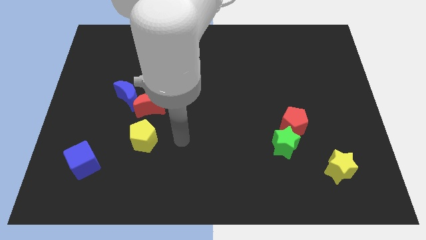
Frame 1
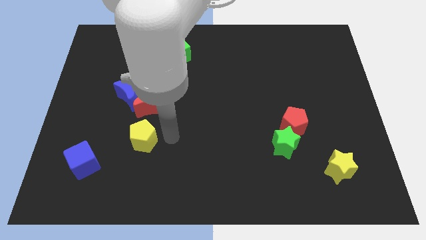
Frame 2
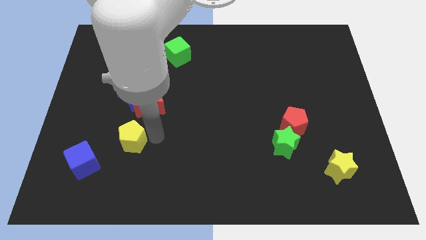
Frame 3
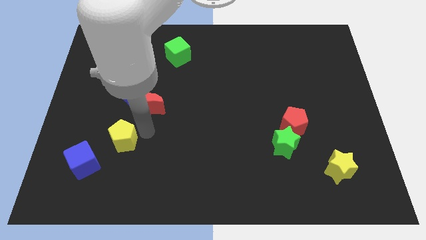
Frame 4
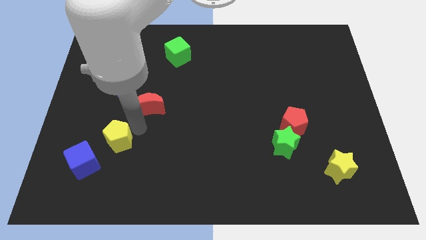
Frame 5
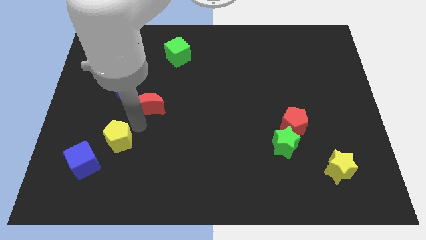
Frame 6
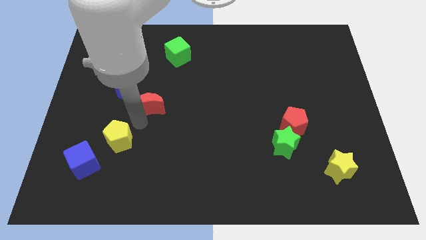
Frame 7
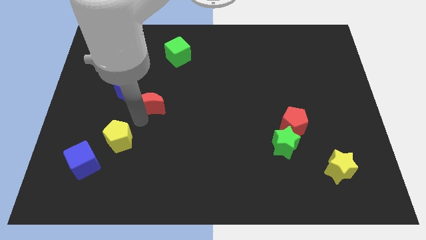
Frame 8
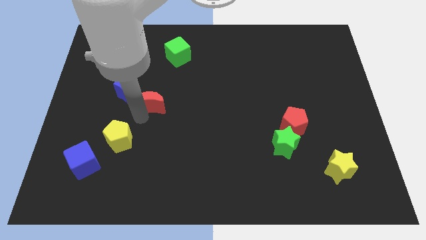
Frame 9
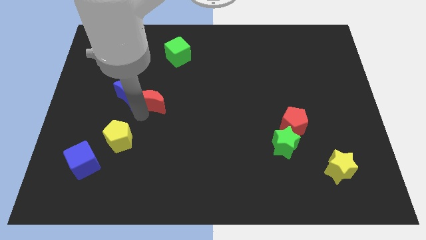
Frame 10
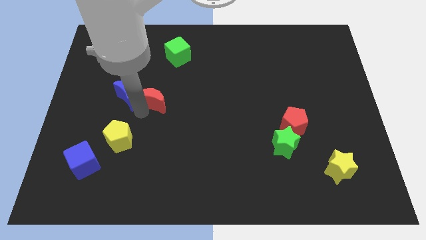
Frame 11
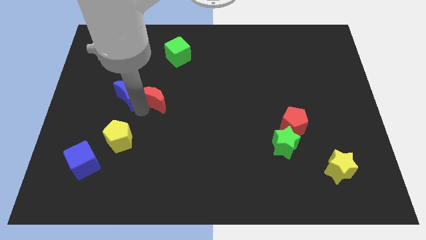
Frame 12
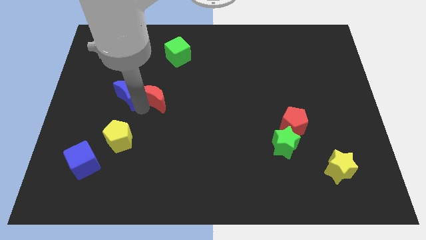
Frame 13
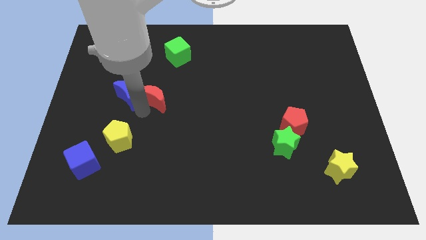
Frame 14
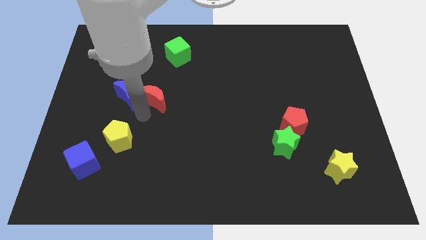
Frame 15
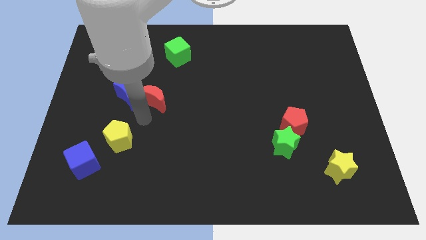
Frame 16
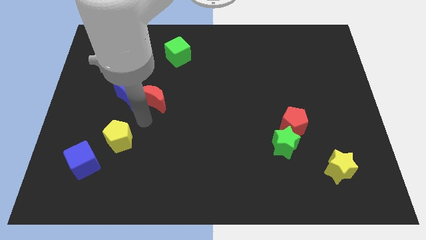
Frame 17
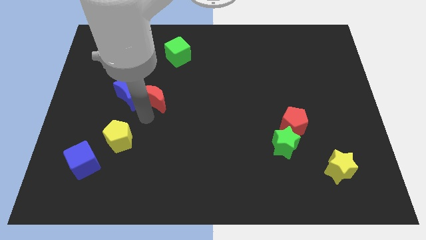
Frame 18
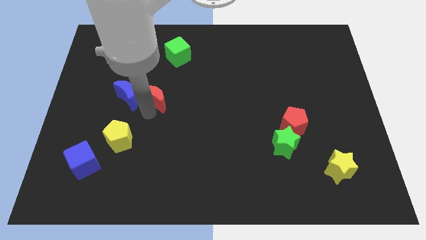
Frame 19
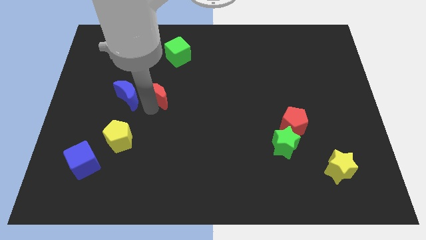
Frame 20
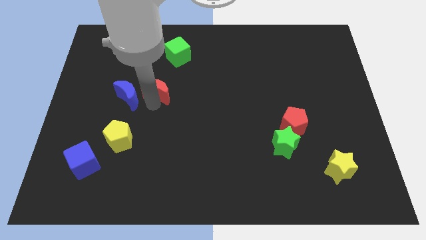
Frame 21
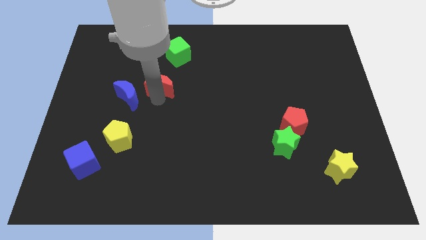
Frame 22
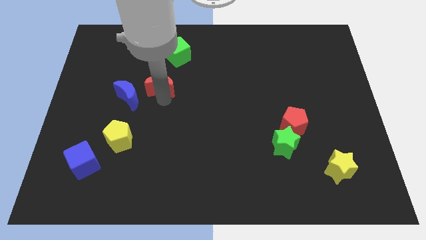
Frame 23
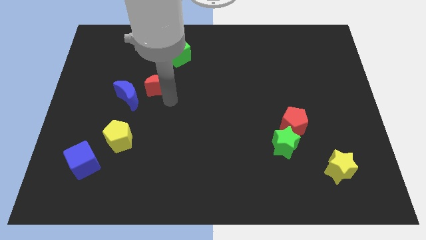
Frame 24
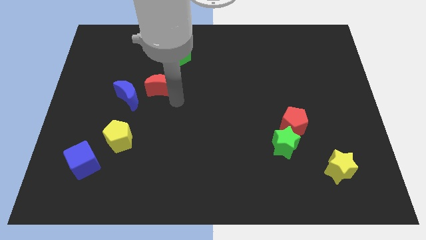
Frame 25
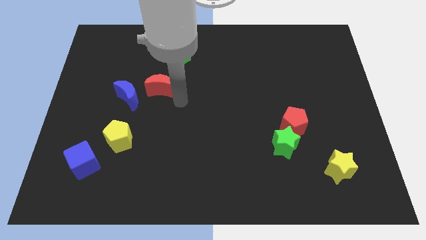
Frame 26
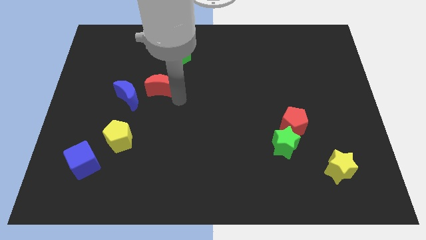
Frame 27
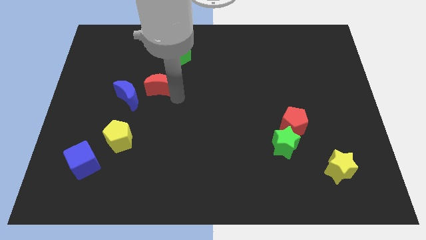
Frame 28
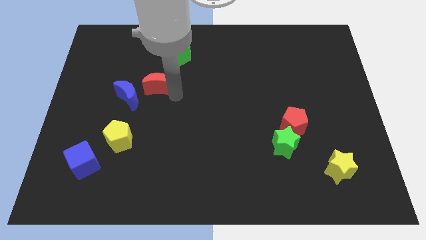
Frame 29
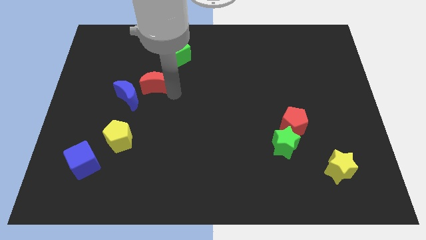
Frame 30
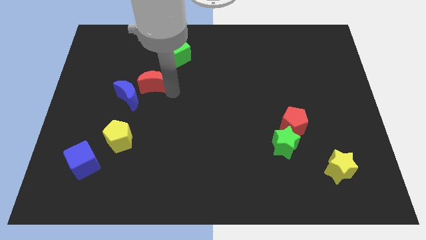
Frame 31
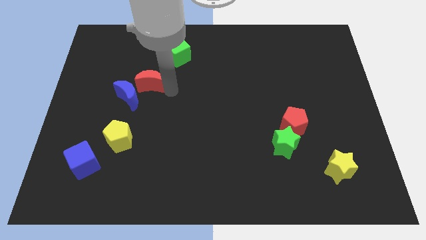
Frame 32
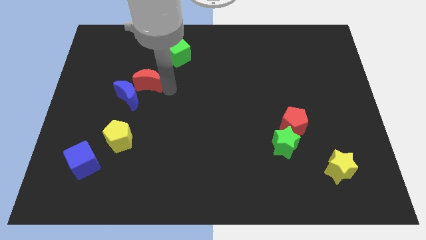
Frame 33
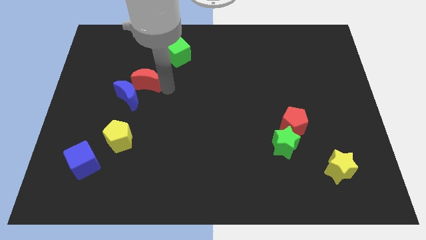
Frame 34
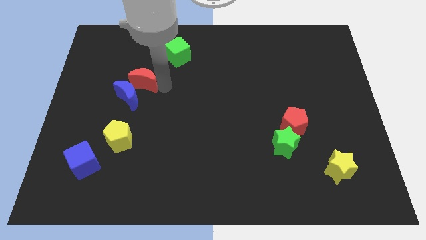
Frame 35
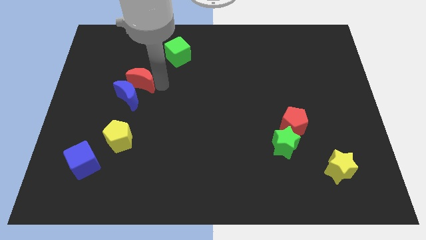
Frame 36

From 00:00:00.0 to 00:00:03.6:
slightly push the red moon up and to the left diagonally

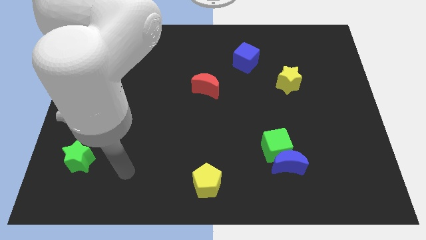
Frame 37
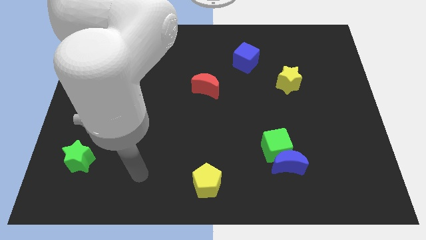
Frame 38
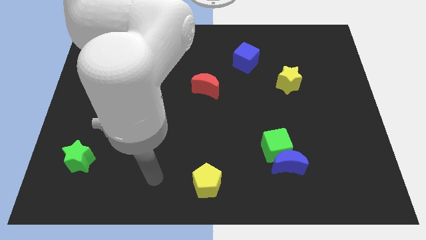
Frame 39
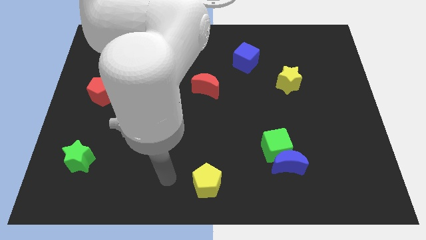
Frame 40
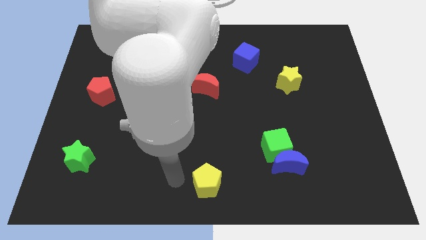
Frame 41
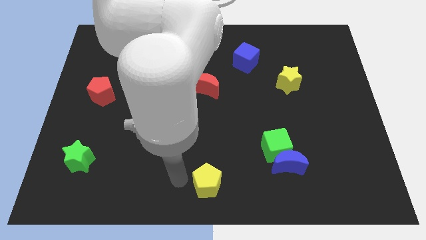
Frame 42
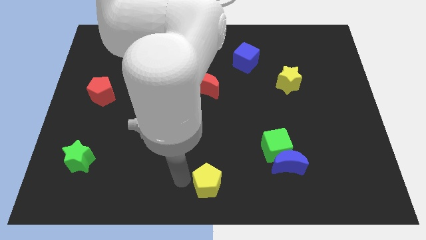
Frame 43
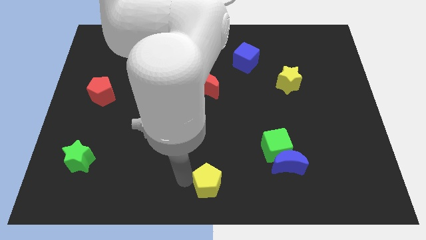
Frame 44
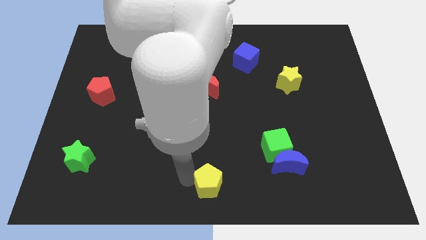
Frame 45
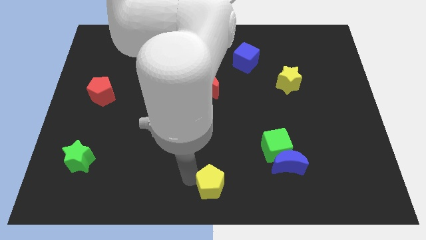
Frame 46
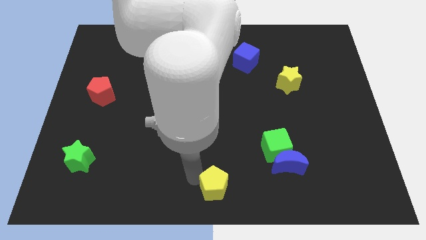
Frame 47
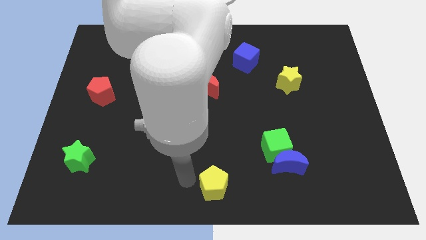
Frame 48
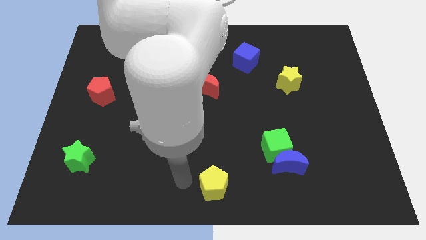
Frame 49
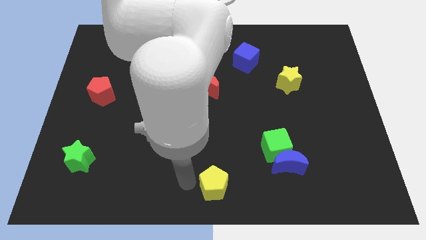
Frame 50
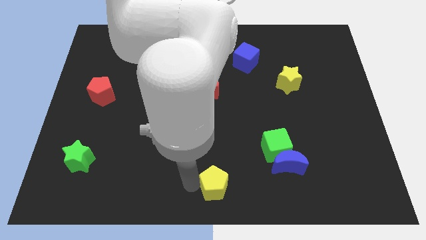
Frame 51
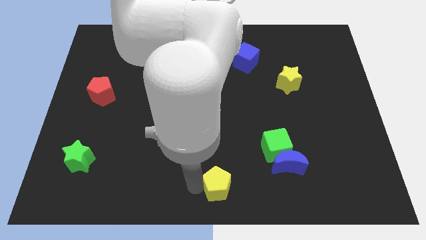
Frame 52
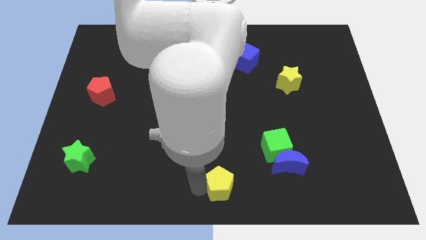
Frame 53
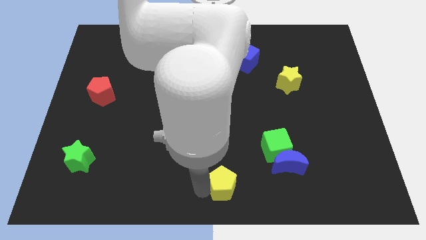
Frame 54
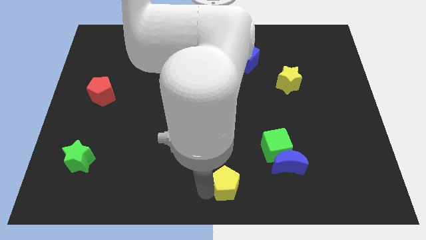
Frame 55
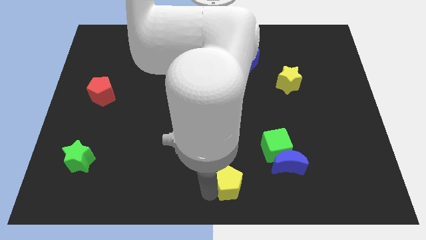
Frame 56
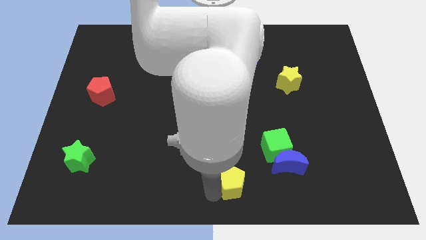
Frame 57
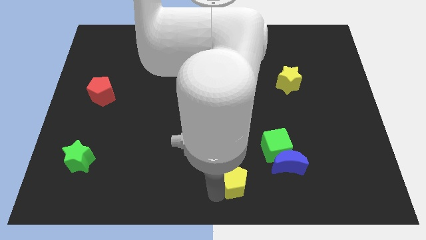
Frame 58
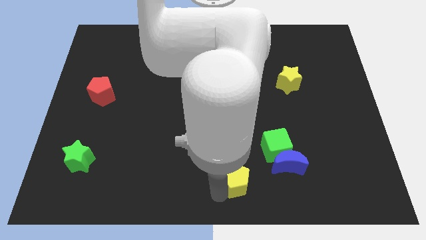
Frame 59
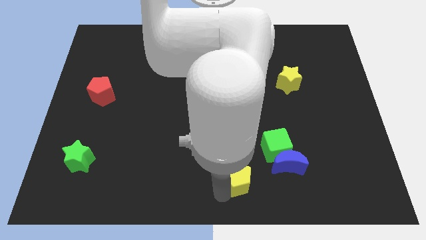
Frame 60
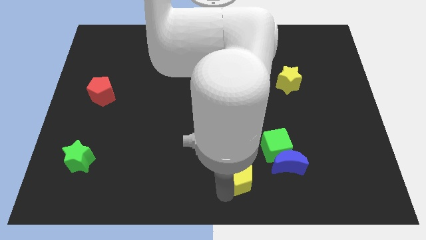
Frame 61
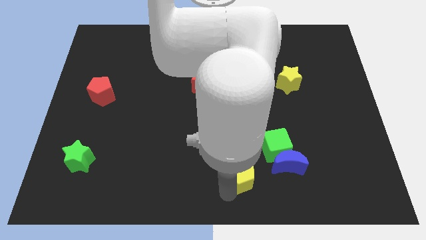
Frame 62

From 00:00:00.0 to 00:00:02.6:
slide the yellow pentagon slightly right

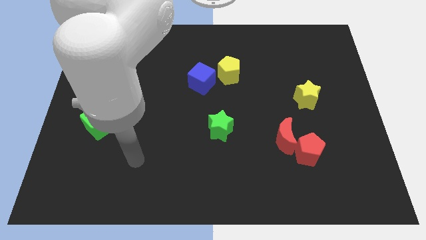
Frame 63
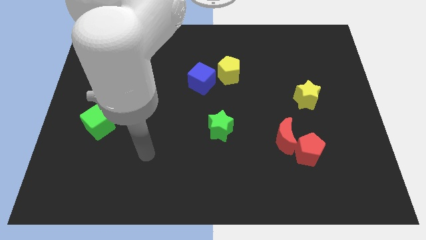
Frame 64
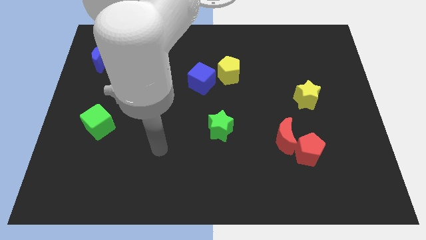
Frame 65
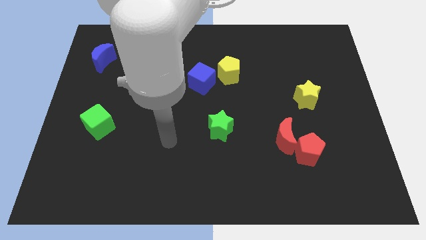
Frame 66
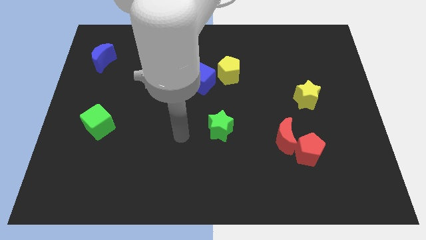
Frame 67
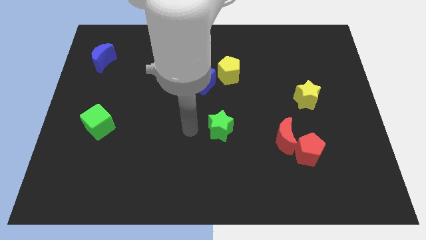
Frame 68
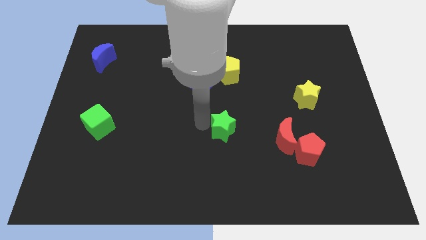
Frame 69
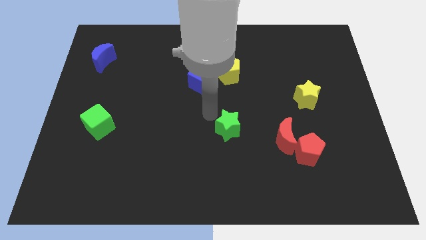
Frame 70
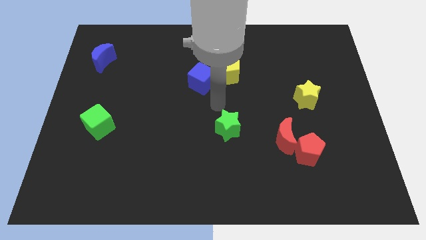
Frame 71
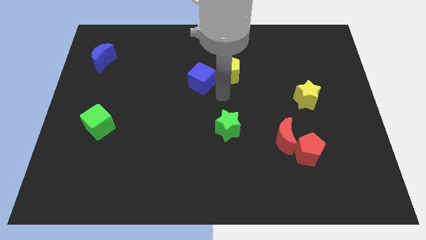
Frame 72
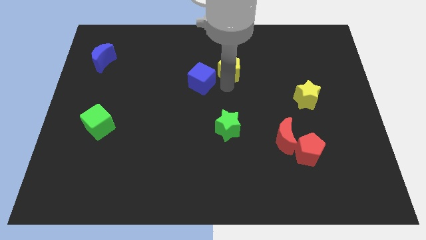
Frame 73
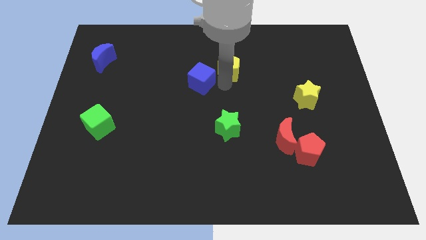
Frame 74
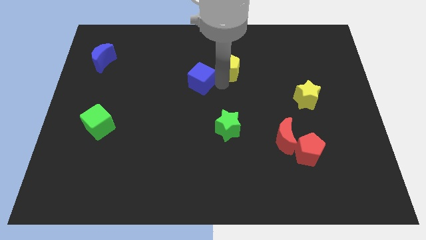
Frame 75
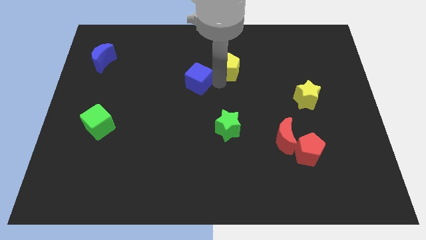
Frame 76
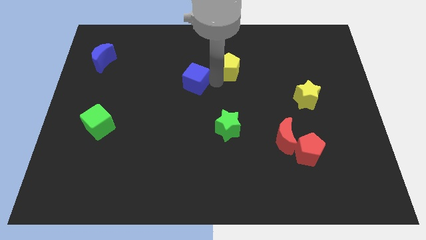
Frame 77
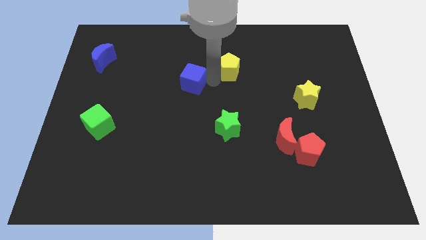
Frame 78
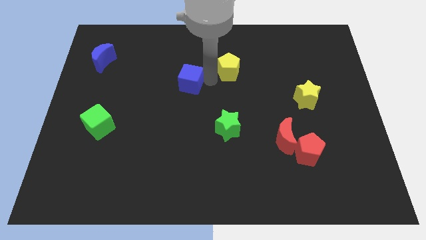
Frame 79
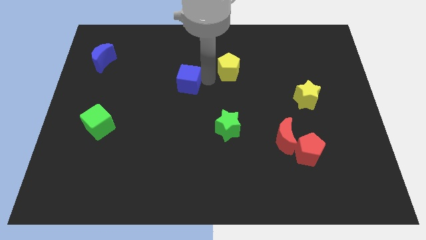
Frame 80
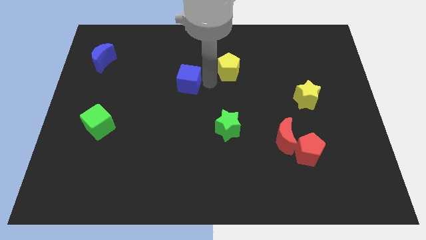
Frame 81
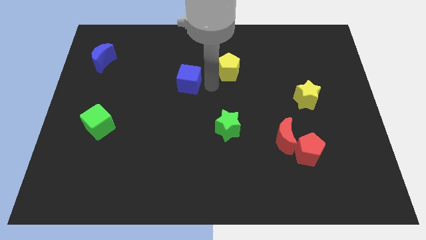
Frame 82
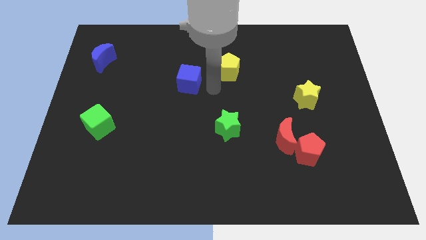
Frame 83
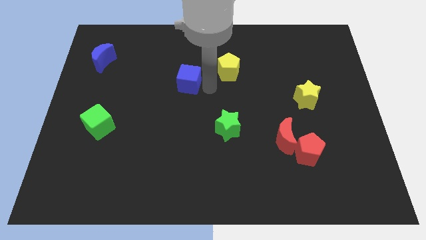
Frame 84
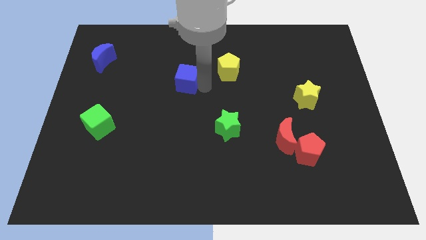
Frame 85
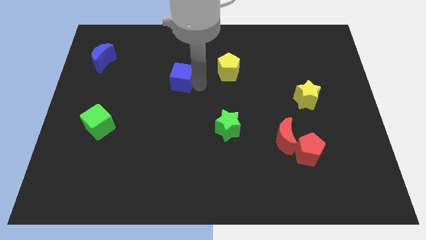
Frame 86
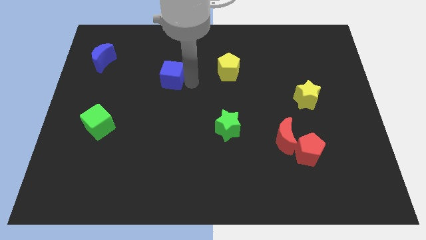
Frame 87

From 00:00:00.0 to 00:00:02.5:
slightly push the blue cube to the left
